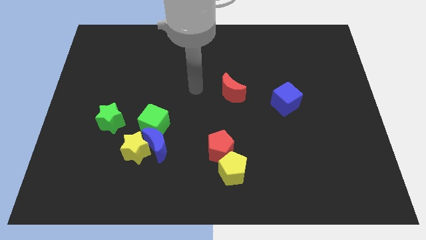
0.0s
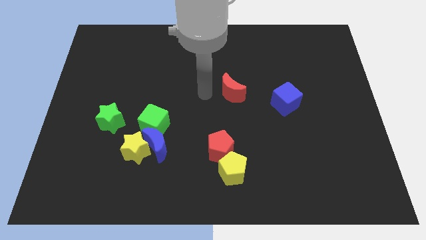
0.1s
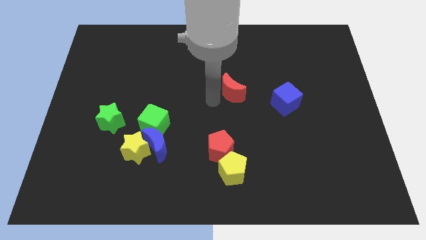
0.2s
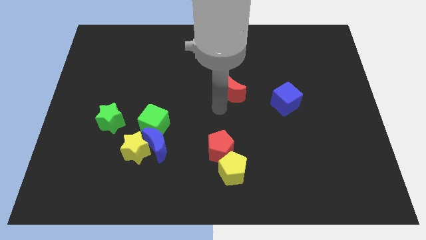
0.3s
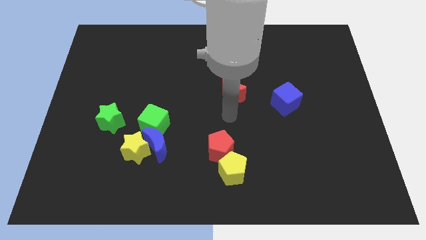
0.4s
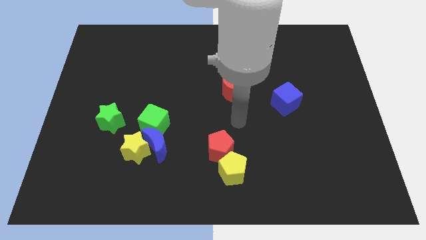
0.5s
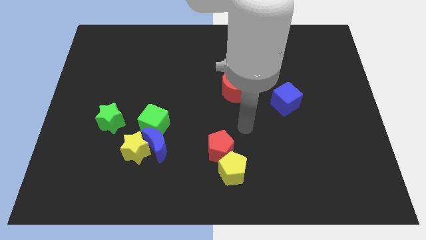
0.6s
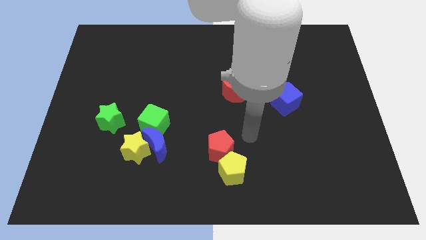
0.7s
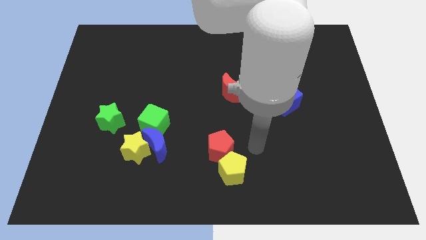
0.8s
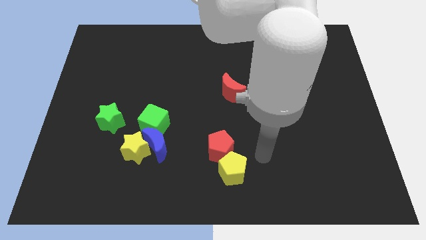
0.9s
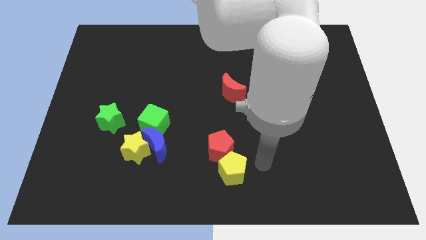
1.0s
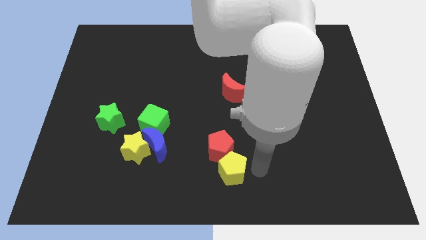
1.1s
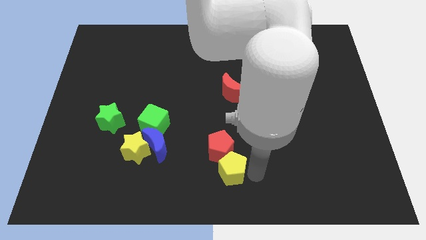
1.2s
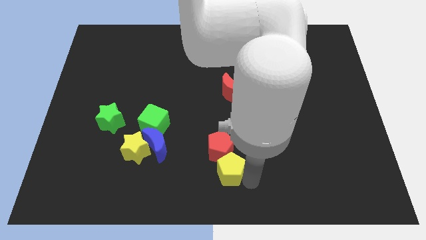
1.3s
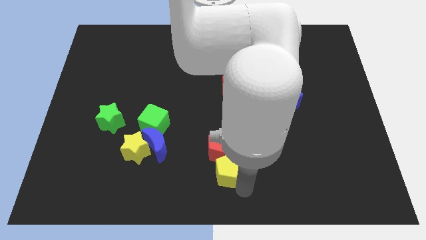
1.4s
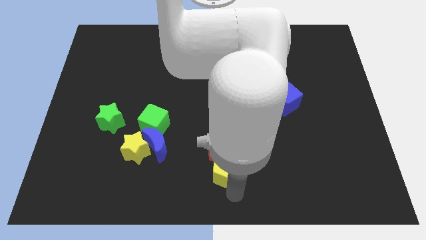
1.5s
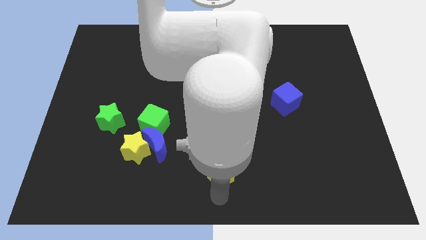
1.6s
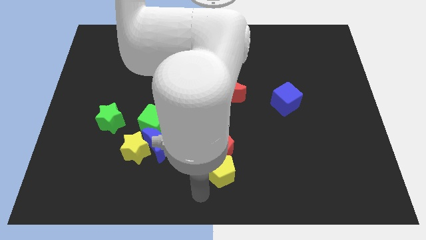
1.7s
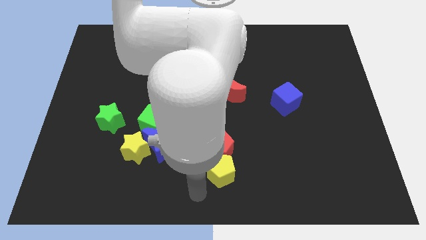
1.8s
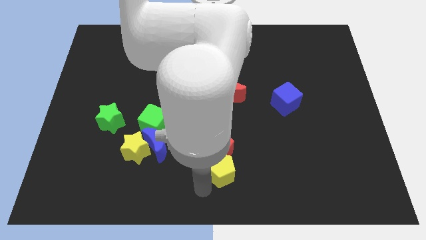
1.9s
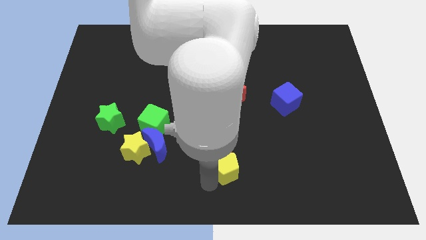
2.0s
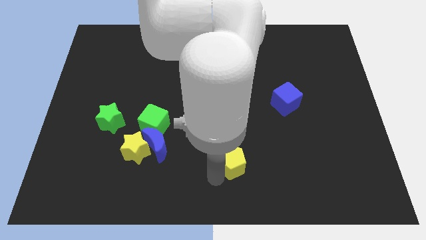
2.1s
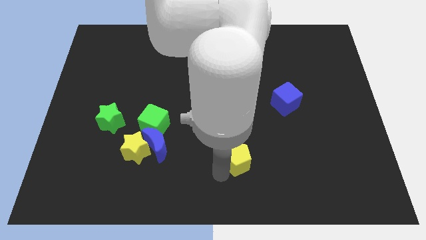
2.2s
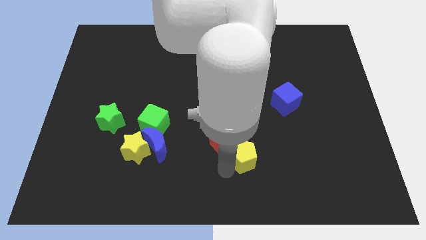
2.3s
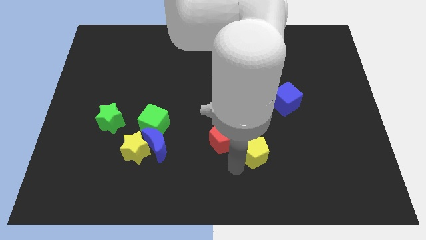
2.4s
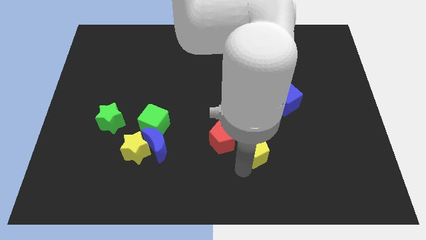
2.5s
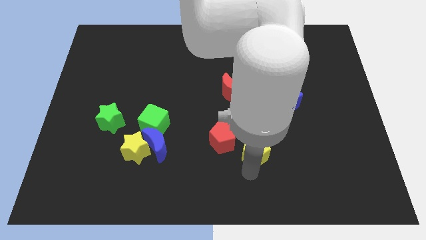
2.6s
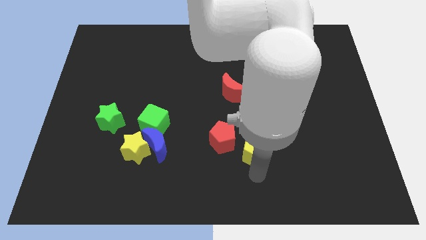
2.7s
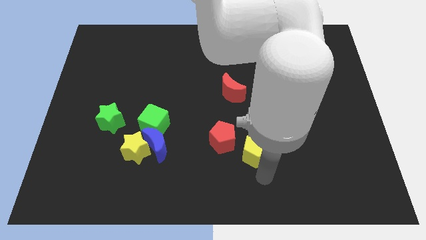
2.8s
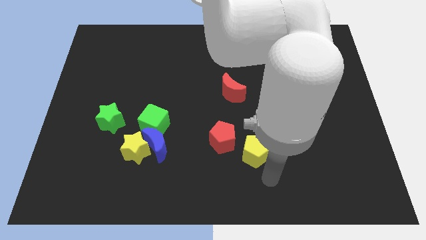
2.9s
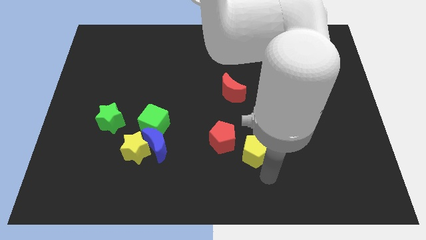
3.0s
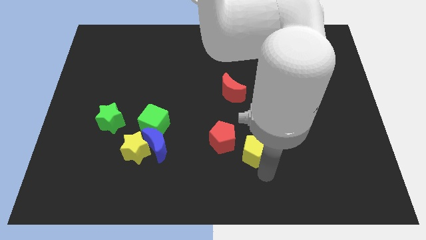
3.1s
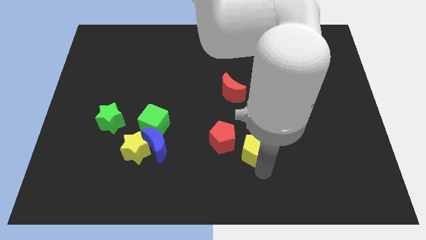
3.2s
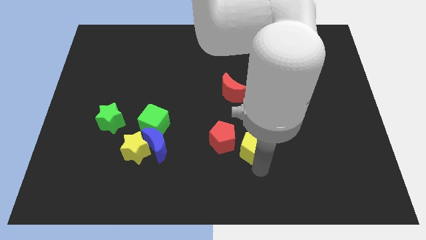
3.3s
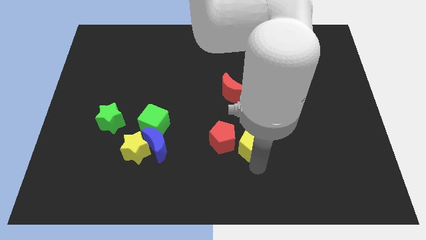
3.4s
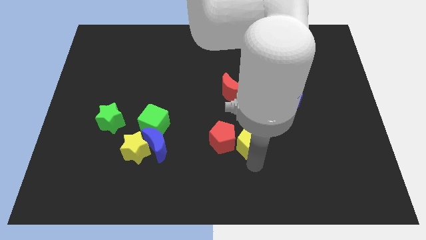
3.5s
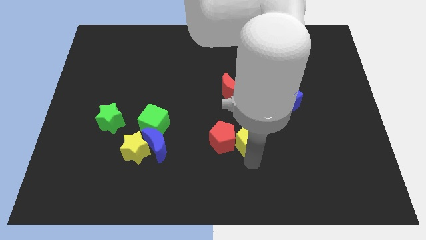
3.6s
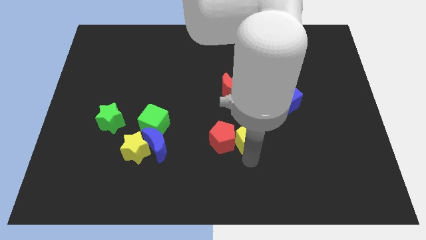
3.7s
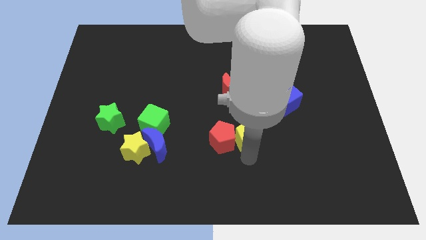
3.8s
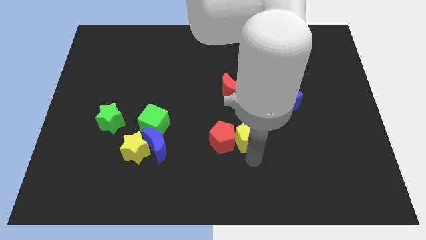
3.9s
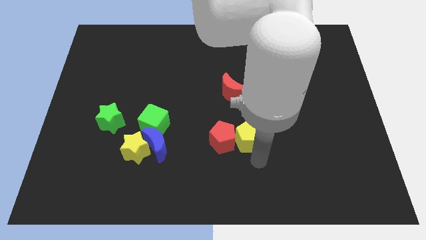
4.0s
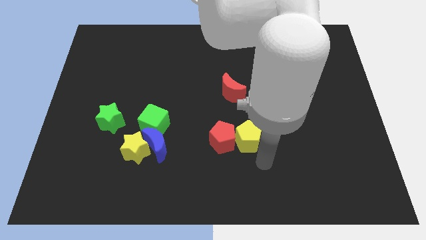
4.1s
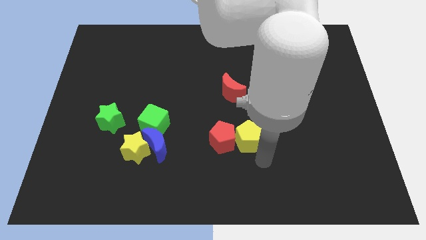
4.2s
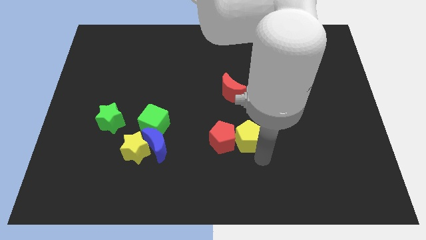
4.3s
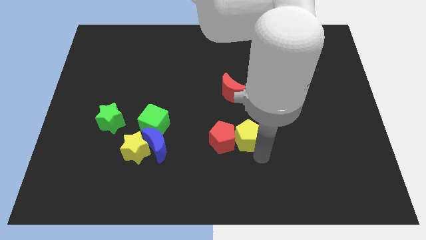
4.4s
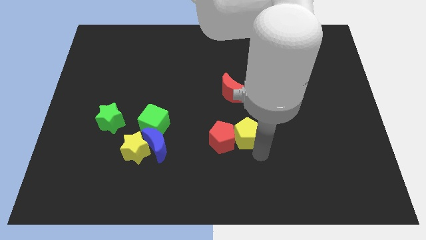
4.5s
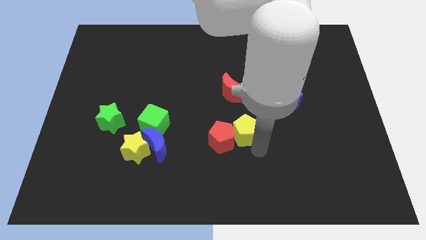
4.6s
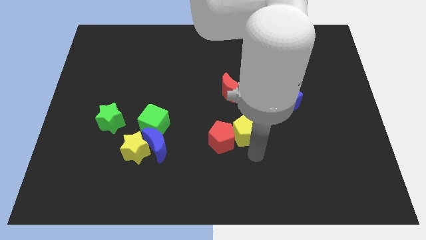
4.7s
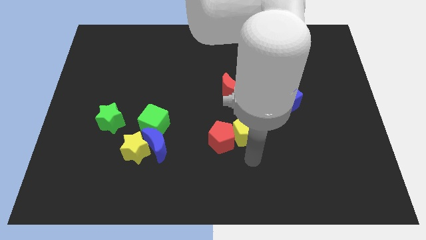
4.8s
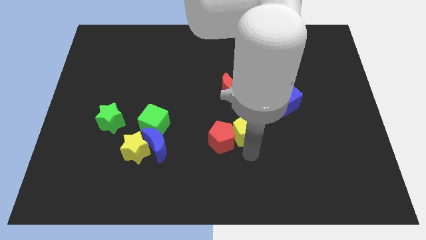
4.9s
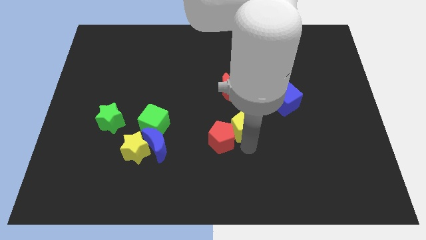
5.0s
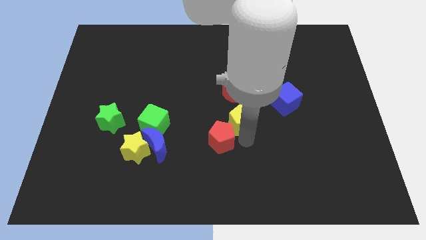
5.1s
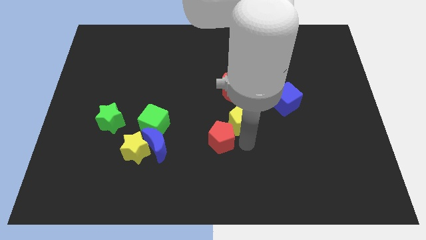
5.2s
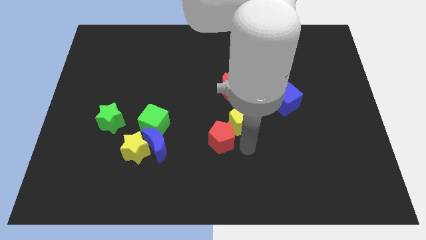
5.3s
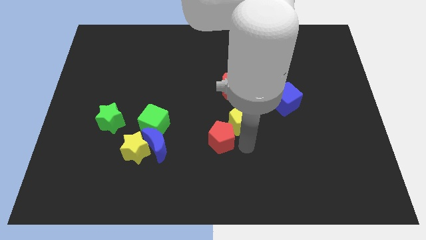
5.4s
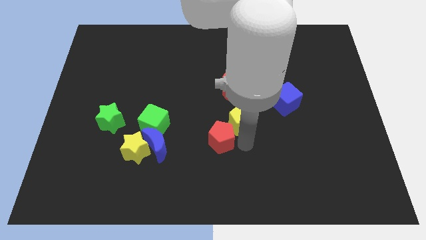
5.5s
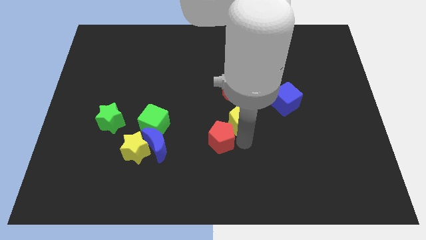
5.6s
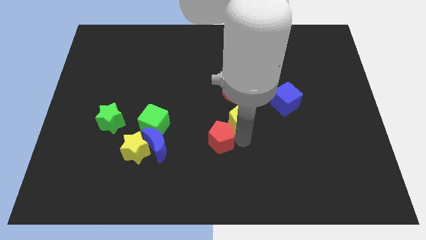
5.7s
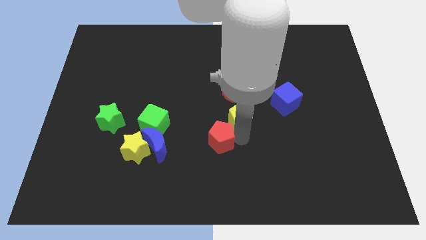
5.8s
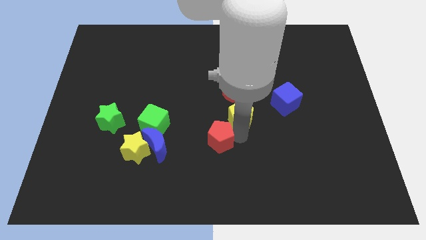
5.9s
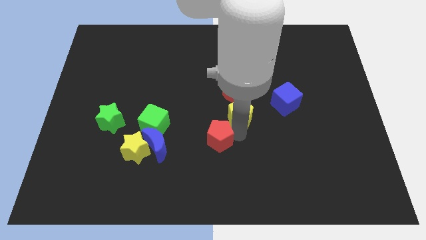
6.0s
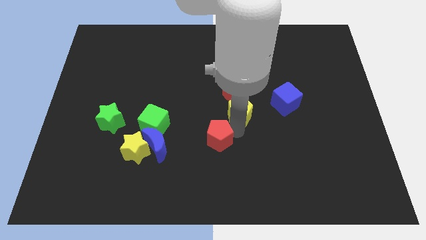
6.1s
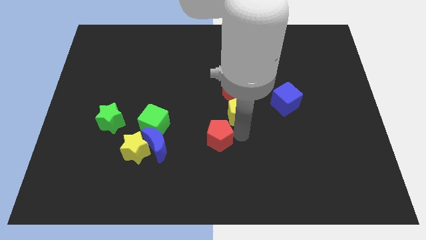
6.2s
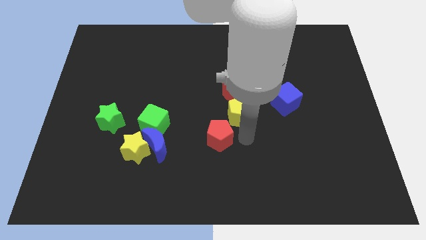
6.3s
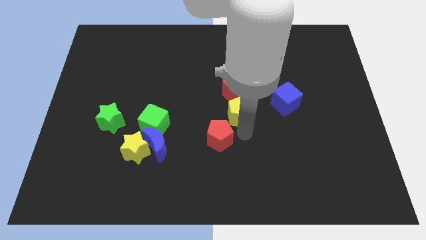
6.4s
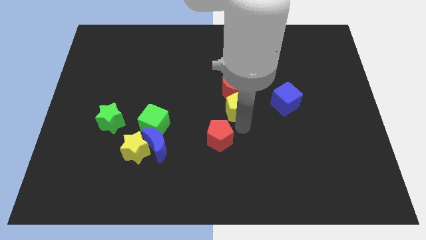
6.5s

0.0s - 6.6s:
move the yellow pentagon close to the red moon

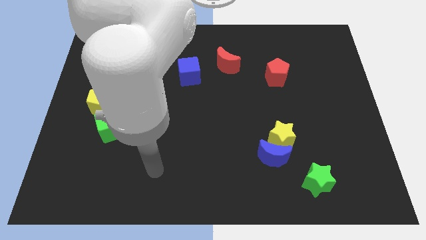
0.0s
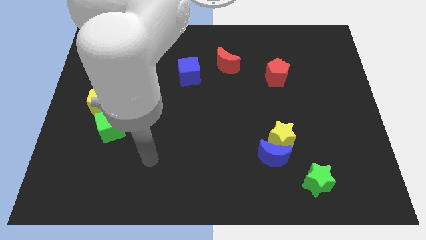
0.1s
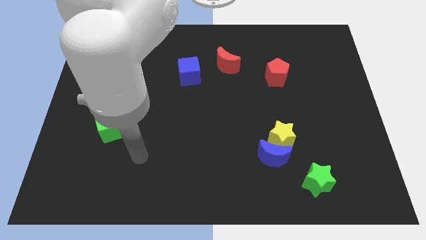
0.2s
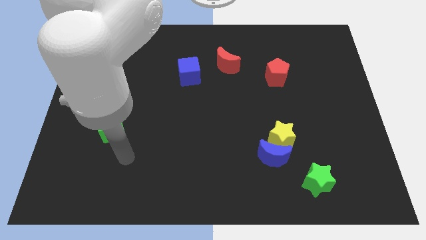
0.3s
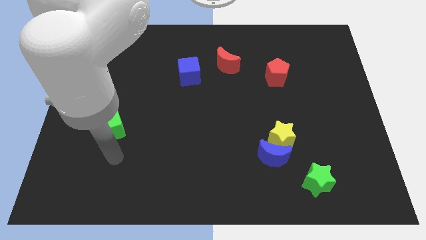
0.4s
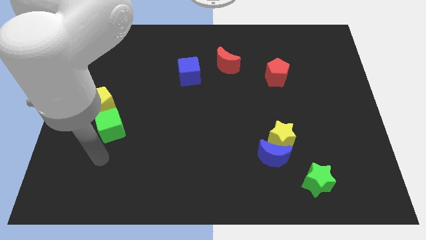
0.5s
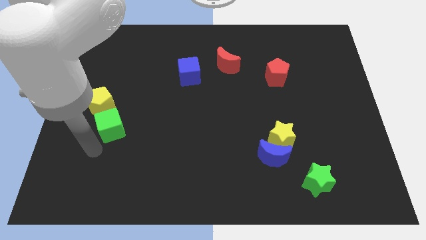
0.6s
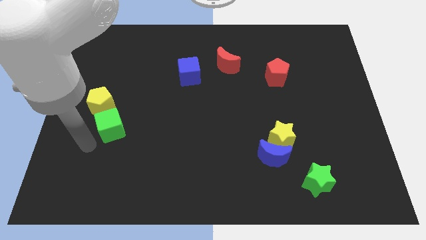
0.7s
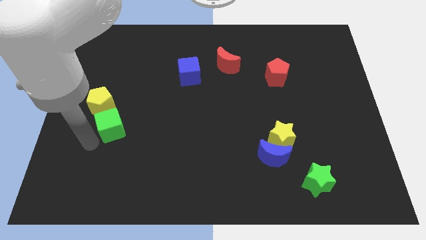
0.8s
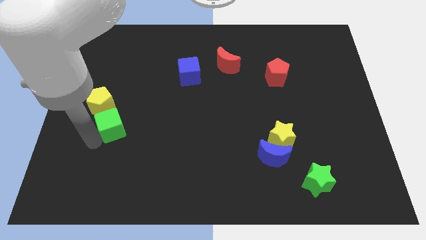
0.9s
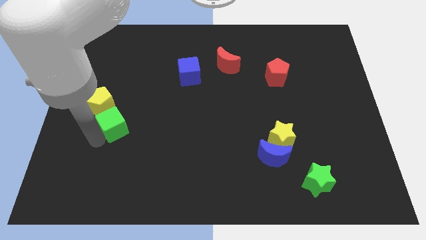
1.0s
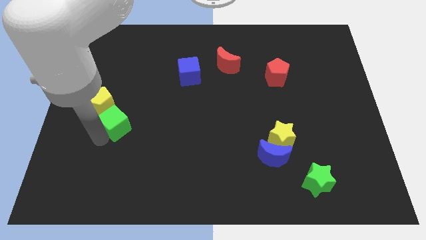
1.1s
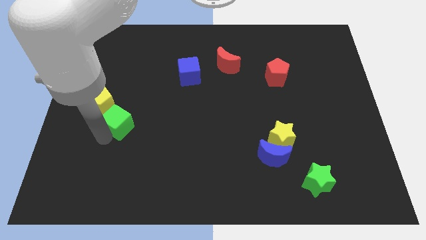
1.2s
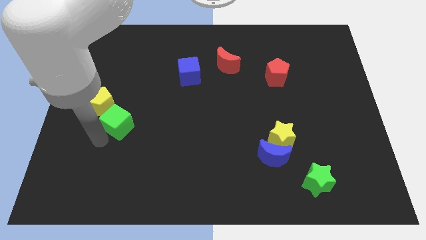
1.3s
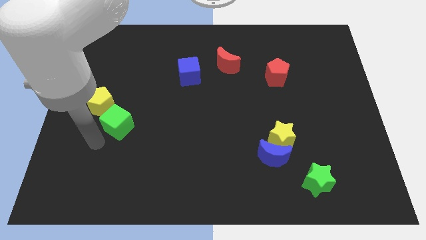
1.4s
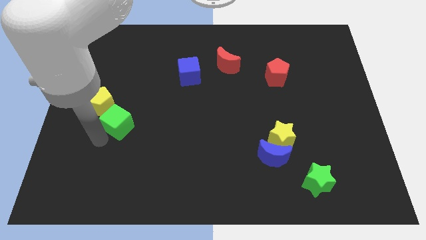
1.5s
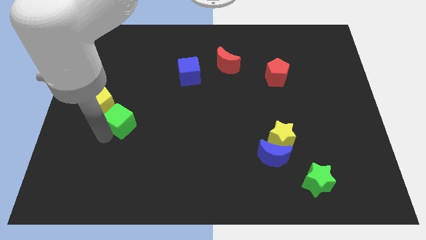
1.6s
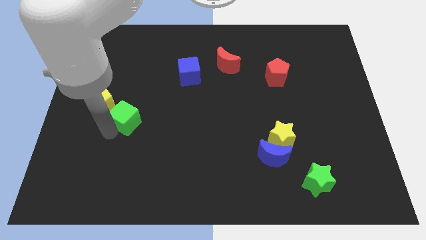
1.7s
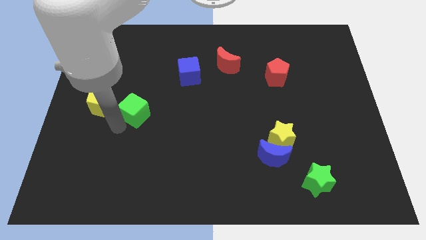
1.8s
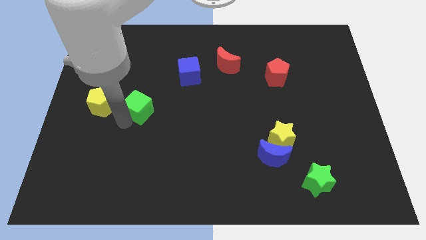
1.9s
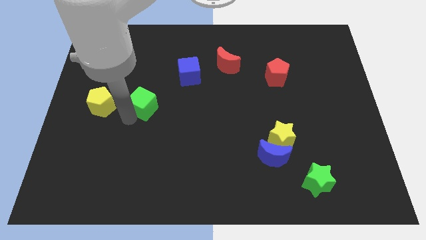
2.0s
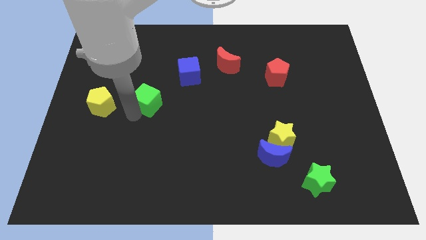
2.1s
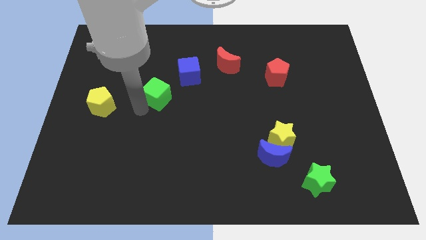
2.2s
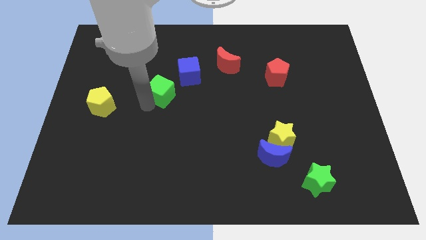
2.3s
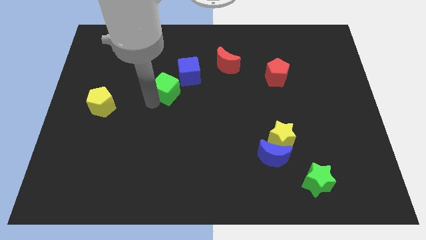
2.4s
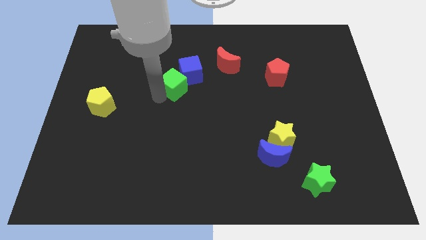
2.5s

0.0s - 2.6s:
push the green cube close to the blue cube
